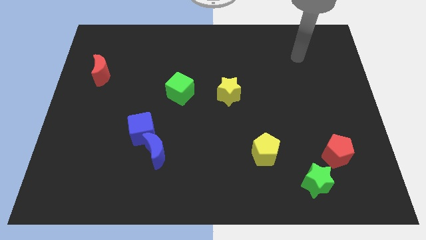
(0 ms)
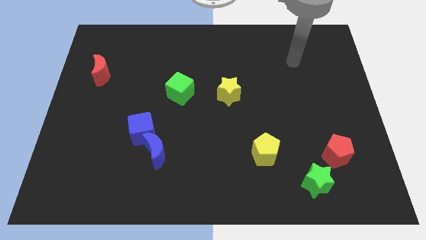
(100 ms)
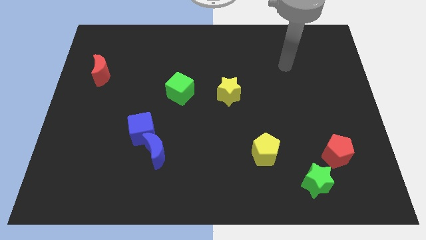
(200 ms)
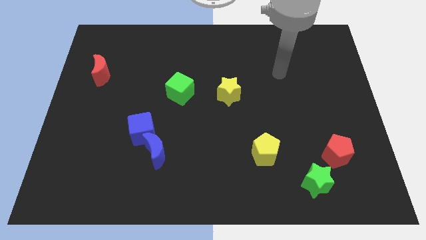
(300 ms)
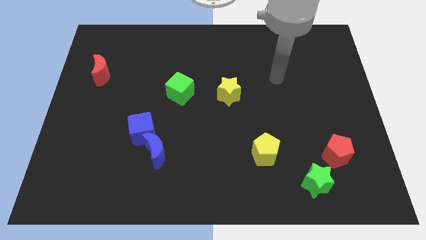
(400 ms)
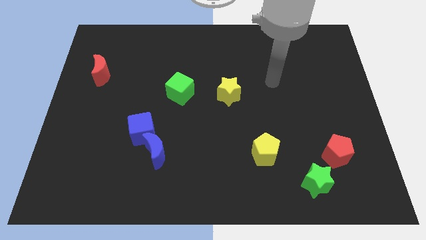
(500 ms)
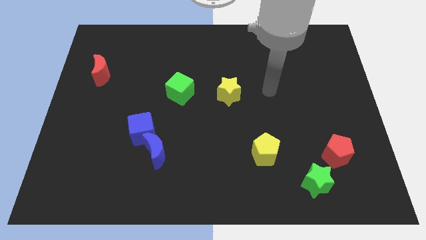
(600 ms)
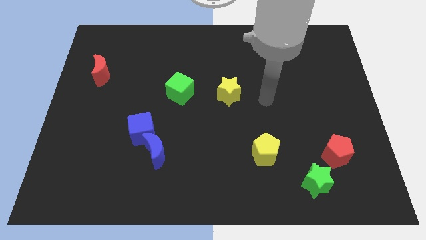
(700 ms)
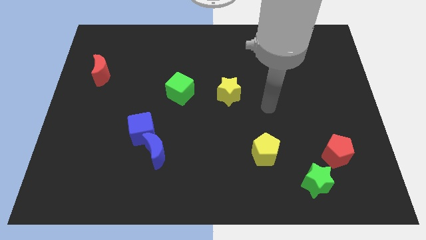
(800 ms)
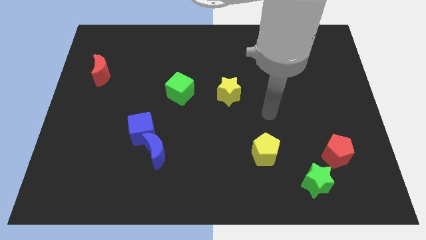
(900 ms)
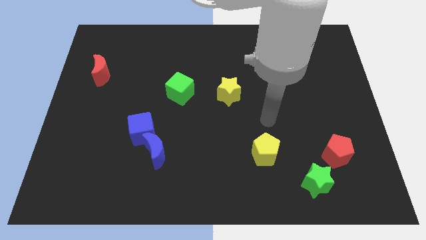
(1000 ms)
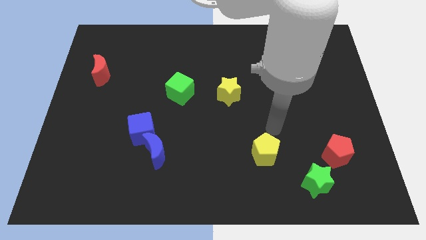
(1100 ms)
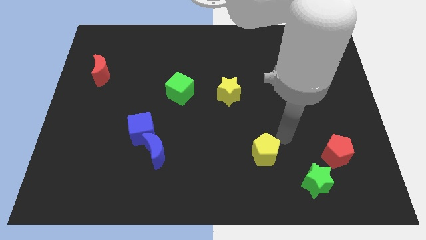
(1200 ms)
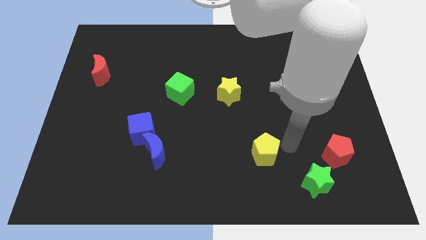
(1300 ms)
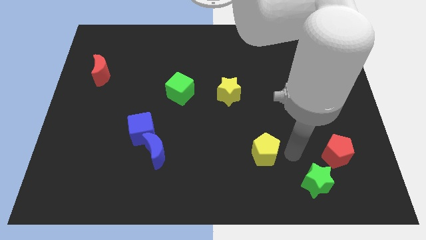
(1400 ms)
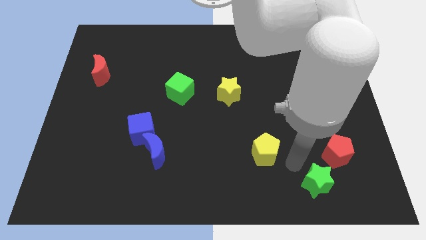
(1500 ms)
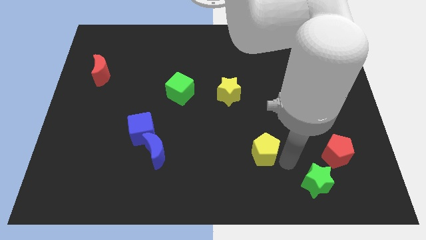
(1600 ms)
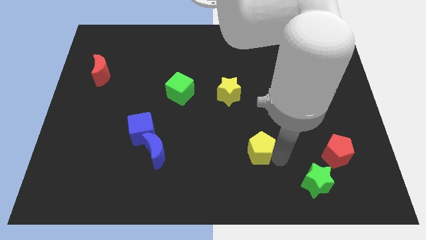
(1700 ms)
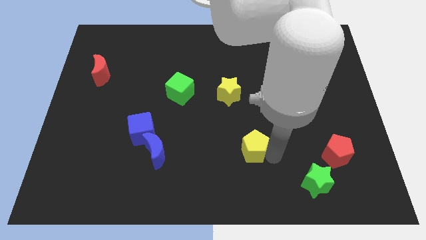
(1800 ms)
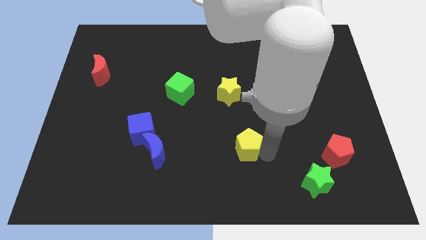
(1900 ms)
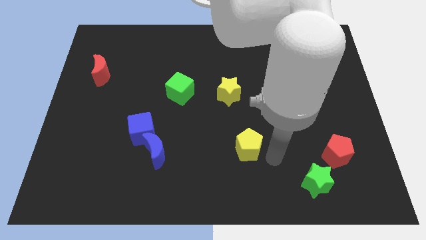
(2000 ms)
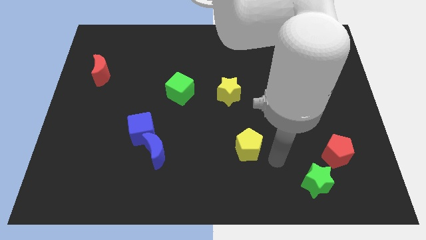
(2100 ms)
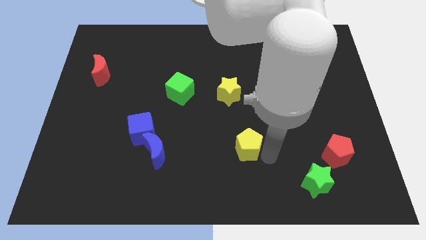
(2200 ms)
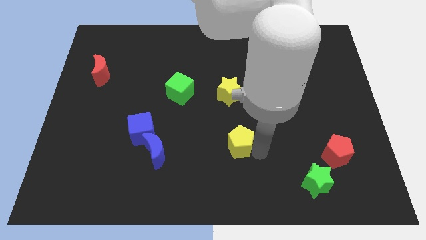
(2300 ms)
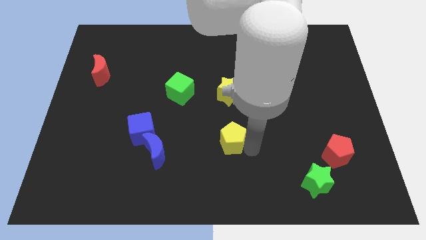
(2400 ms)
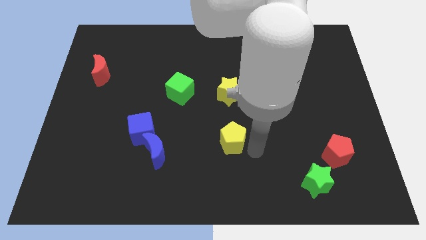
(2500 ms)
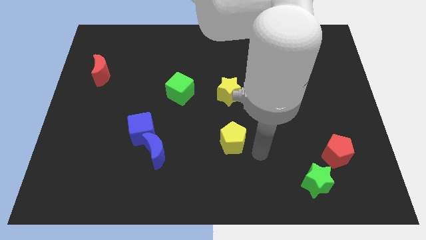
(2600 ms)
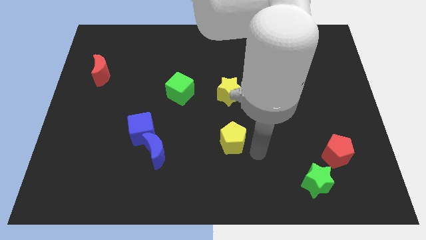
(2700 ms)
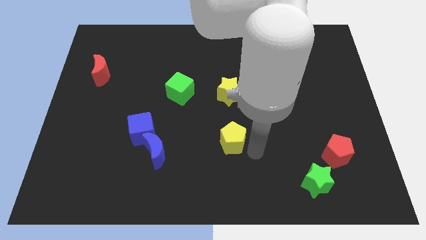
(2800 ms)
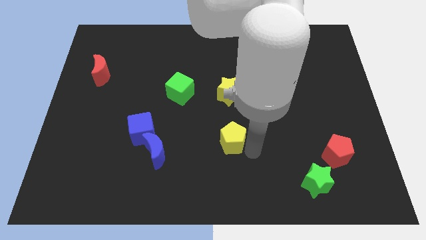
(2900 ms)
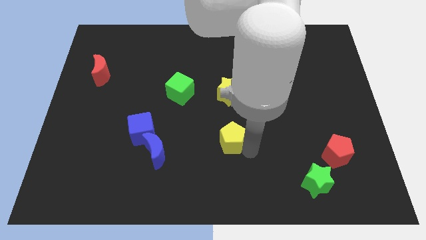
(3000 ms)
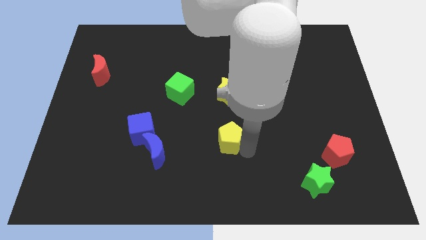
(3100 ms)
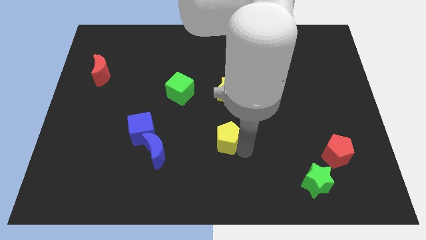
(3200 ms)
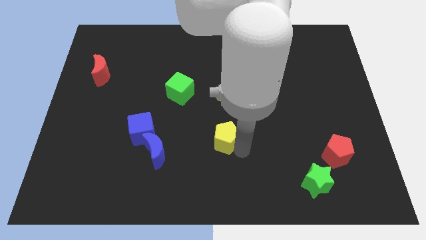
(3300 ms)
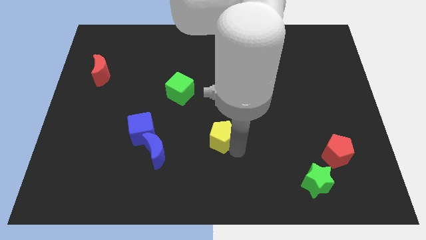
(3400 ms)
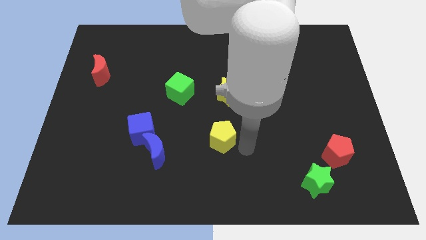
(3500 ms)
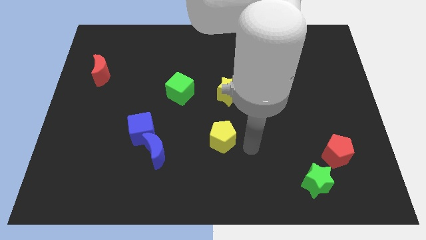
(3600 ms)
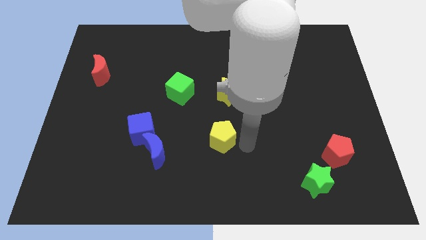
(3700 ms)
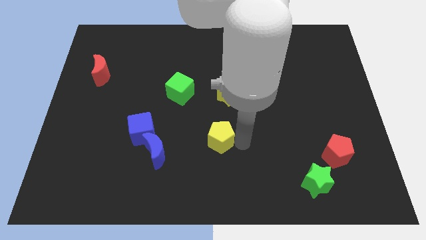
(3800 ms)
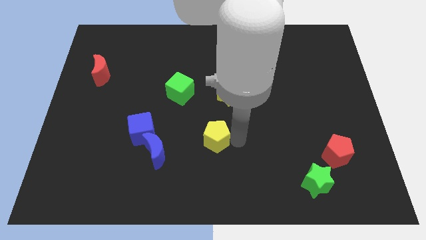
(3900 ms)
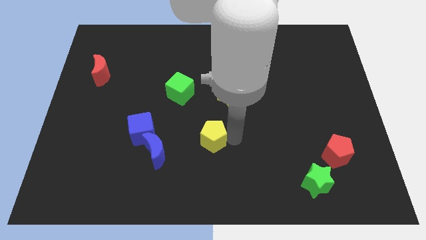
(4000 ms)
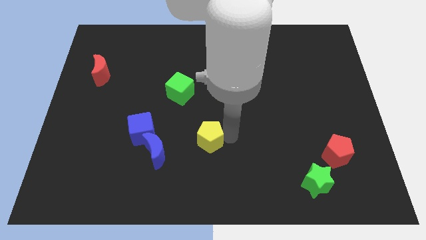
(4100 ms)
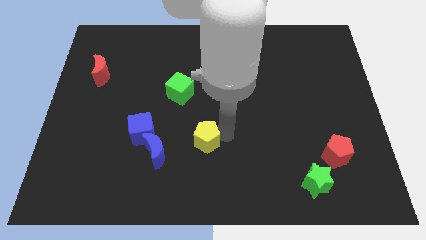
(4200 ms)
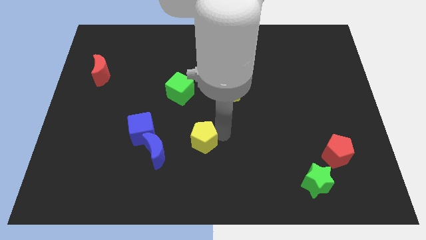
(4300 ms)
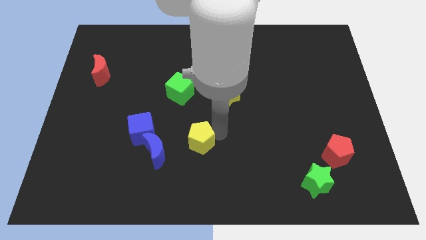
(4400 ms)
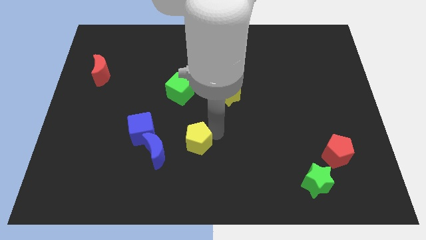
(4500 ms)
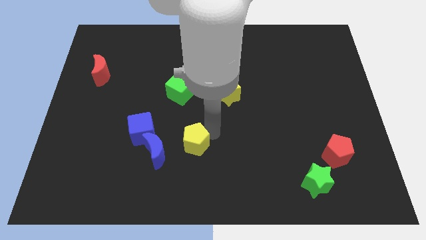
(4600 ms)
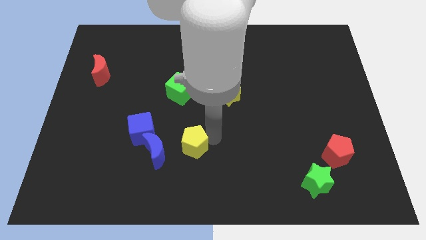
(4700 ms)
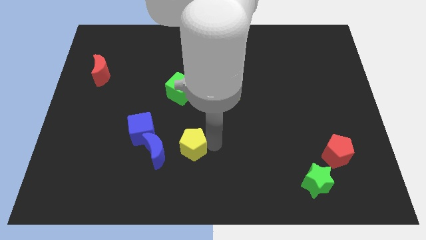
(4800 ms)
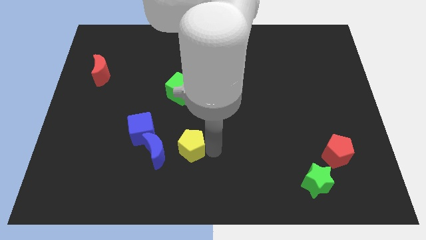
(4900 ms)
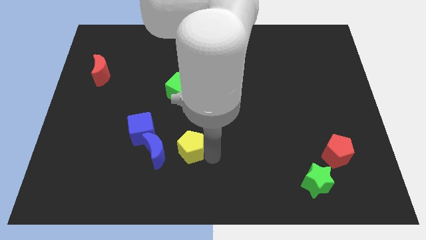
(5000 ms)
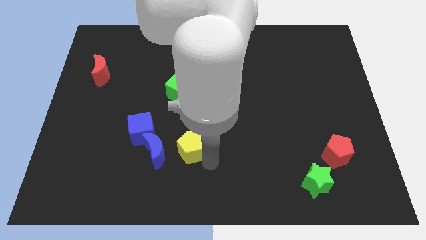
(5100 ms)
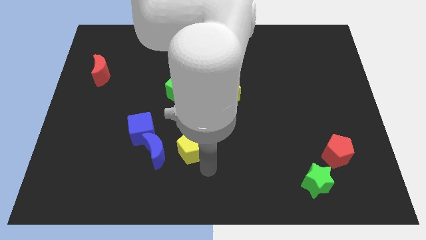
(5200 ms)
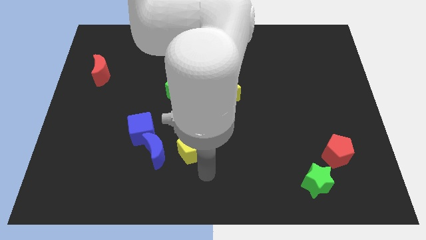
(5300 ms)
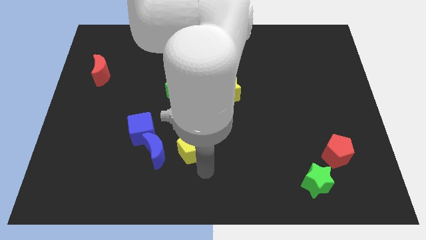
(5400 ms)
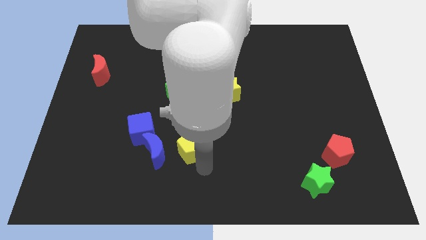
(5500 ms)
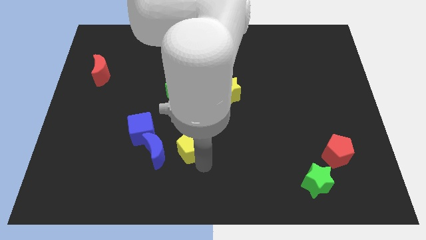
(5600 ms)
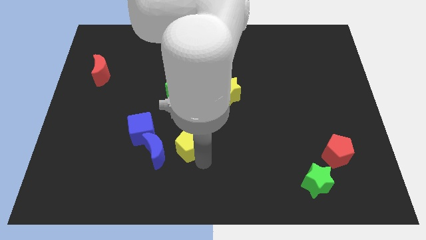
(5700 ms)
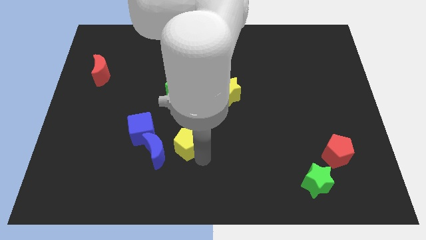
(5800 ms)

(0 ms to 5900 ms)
move the yellow pentagon below the green cube

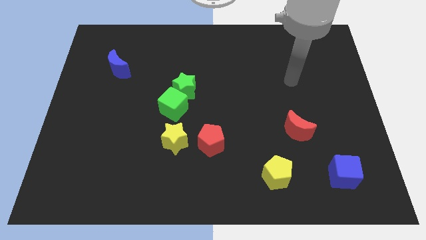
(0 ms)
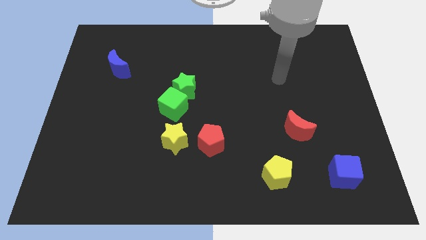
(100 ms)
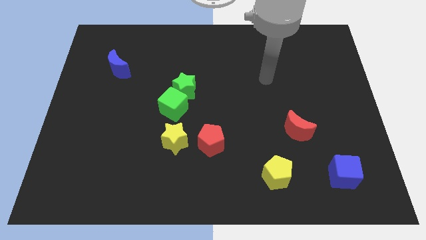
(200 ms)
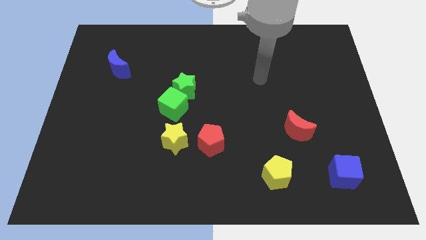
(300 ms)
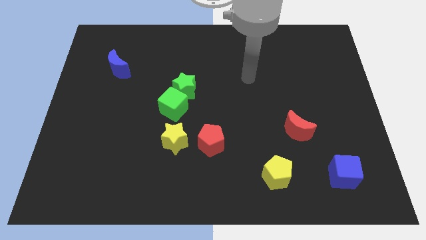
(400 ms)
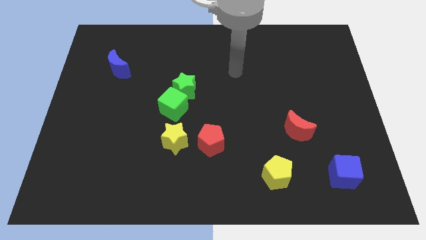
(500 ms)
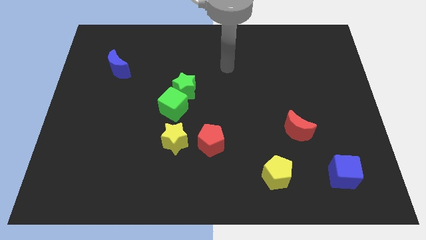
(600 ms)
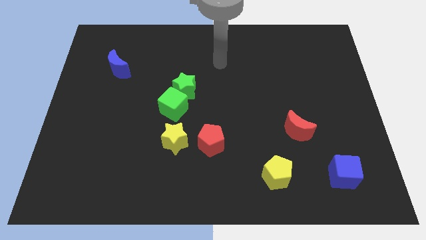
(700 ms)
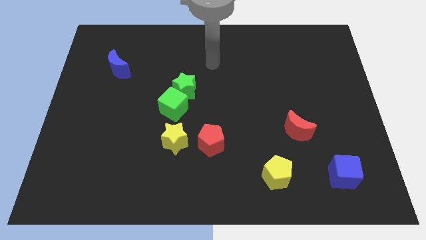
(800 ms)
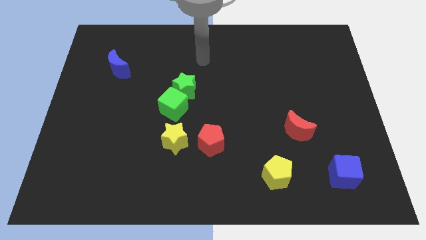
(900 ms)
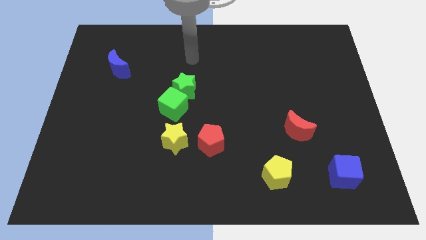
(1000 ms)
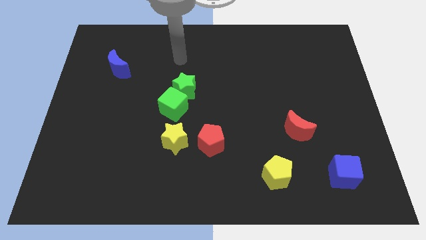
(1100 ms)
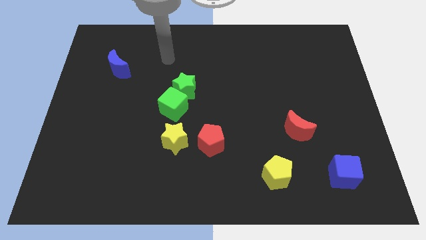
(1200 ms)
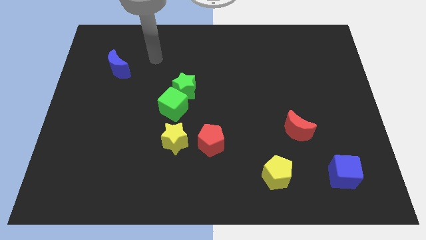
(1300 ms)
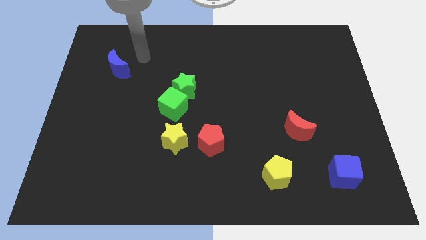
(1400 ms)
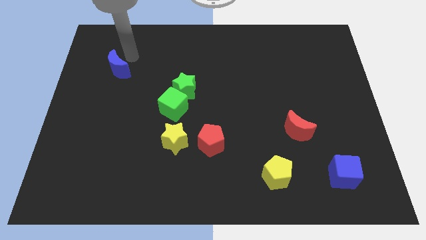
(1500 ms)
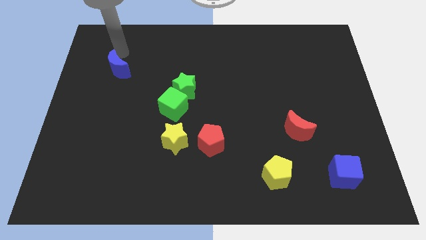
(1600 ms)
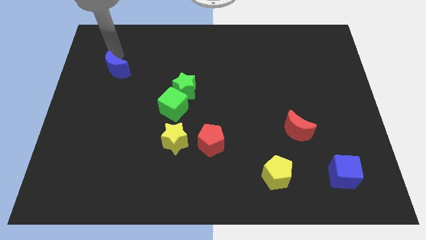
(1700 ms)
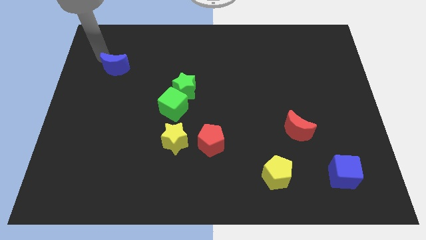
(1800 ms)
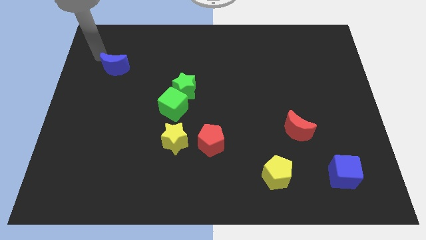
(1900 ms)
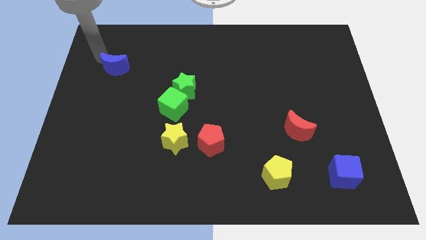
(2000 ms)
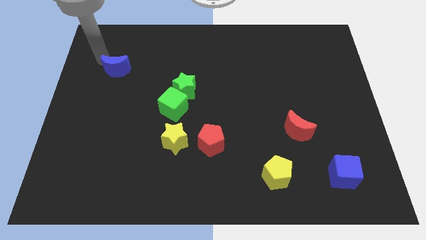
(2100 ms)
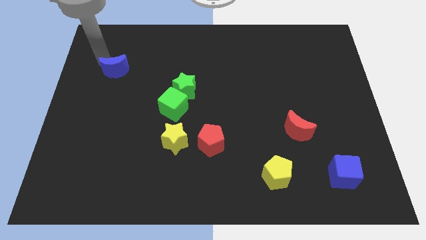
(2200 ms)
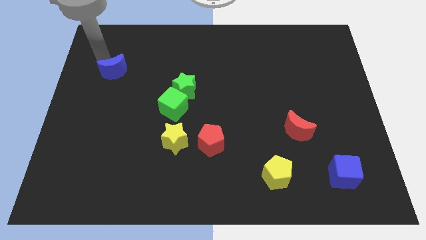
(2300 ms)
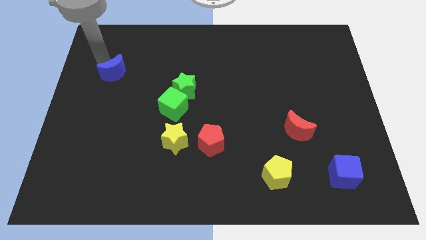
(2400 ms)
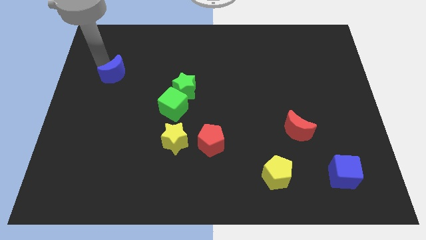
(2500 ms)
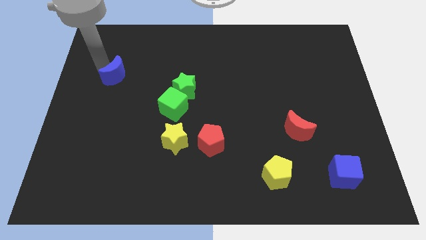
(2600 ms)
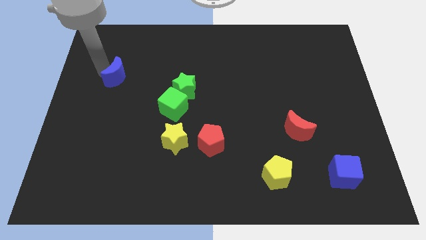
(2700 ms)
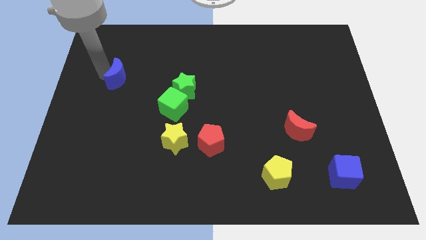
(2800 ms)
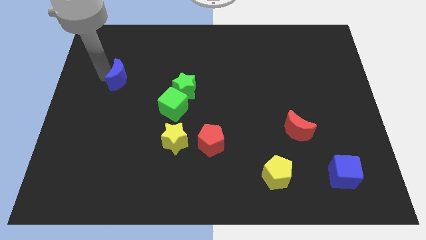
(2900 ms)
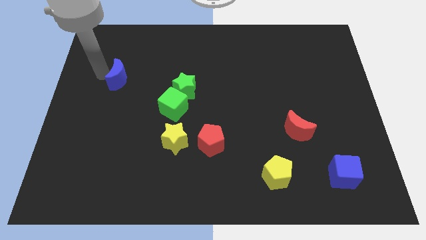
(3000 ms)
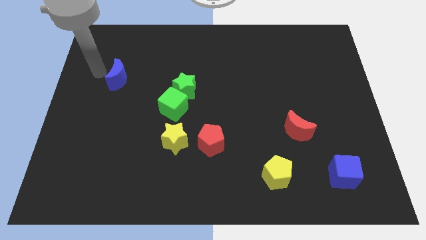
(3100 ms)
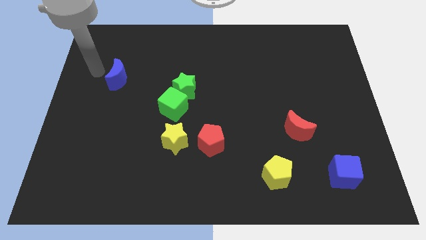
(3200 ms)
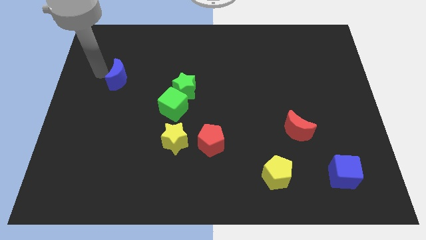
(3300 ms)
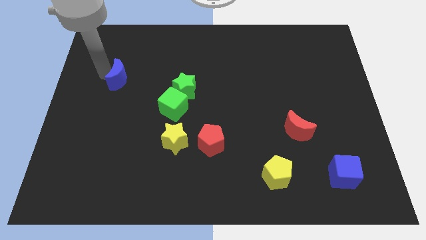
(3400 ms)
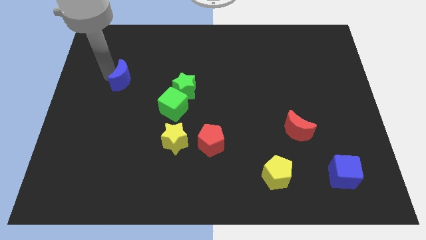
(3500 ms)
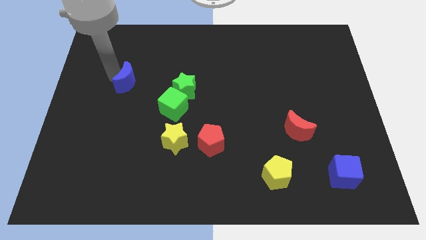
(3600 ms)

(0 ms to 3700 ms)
move the blue moon just left of the green star
